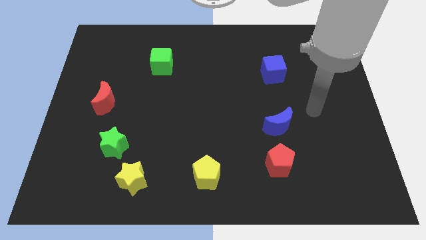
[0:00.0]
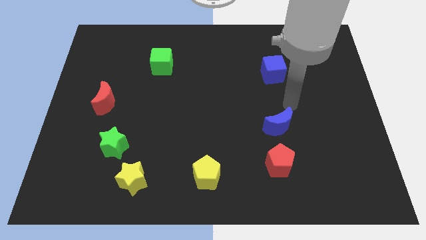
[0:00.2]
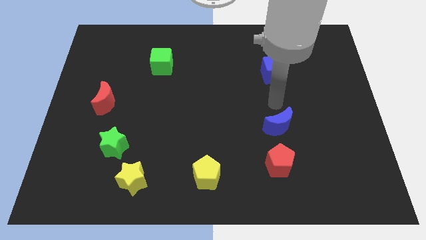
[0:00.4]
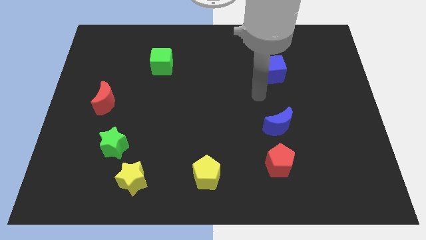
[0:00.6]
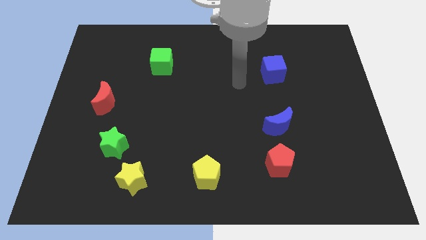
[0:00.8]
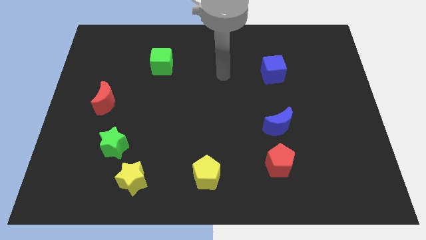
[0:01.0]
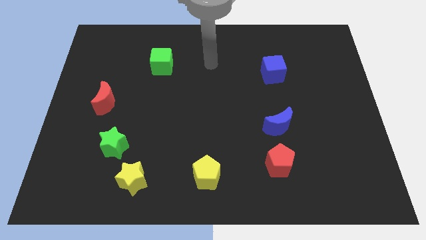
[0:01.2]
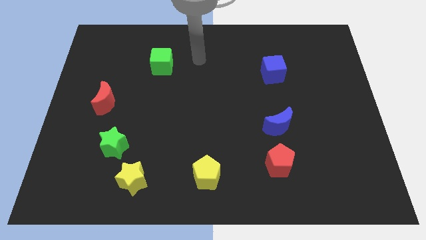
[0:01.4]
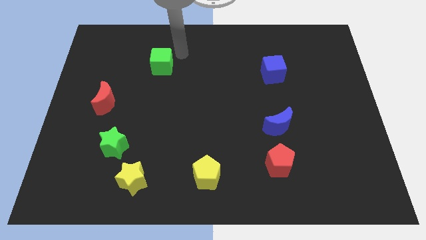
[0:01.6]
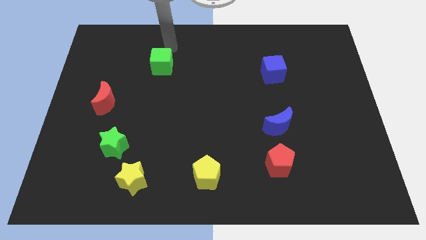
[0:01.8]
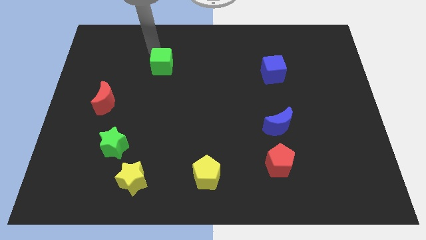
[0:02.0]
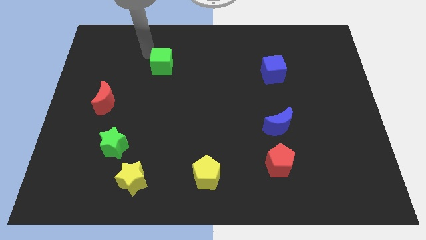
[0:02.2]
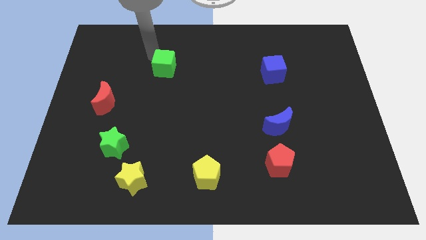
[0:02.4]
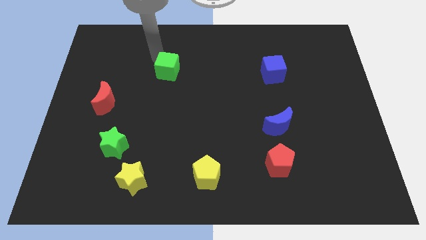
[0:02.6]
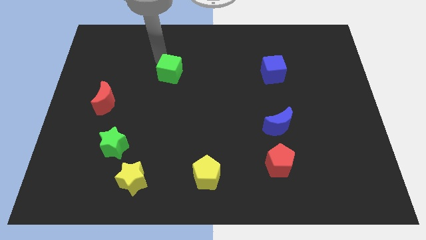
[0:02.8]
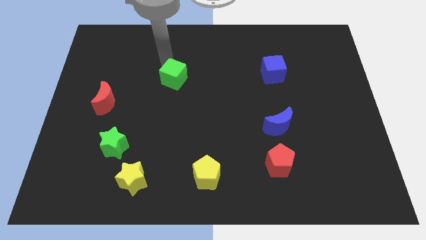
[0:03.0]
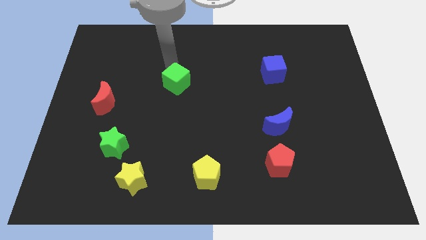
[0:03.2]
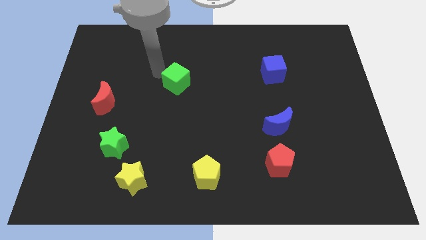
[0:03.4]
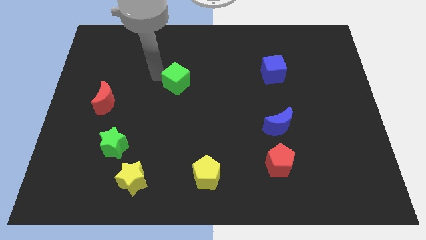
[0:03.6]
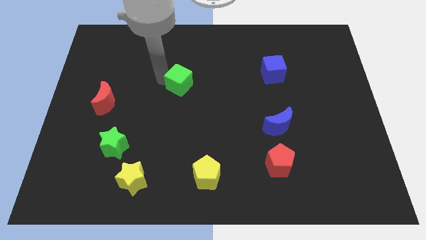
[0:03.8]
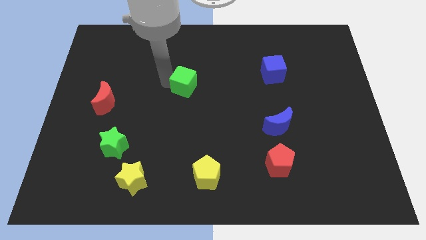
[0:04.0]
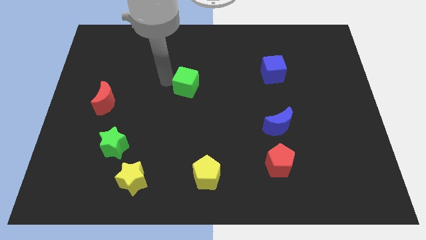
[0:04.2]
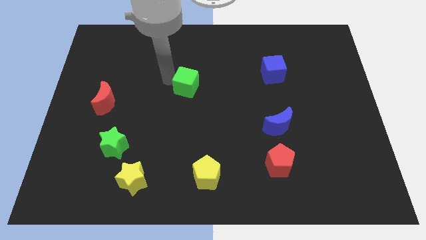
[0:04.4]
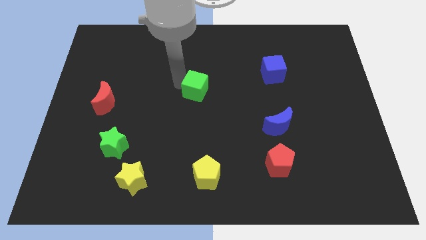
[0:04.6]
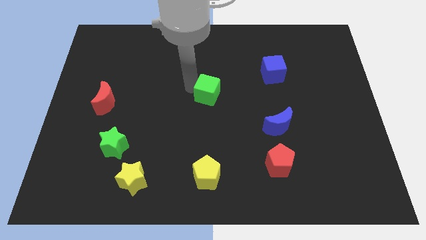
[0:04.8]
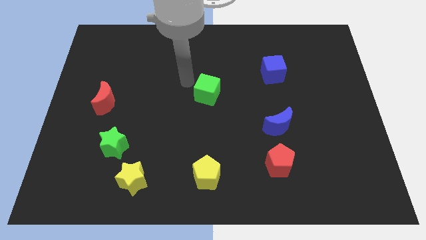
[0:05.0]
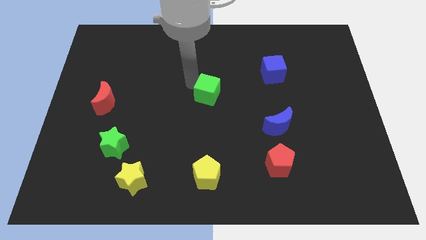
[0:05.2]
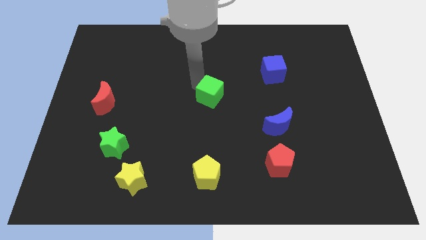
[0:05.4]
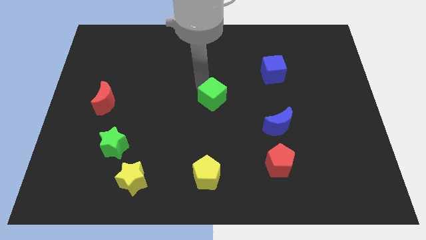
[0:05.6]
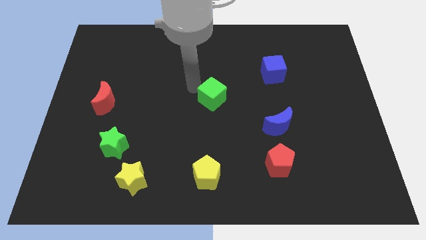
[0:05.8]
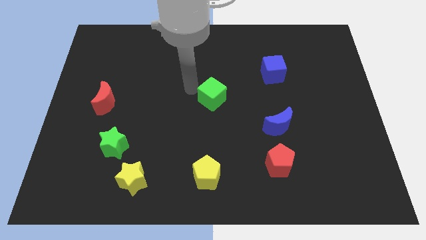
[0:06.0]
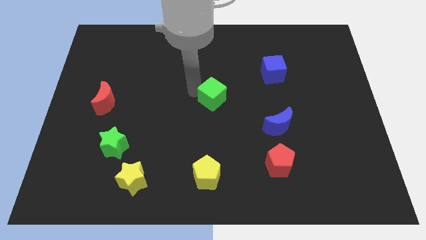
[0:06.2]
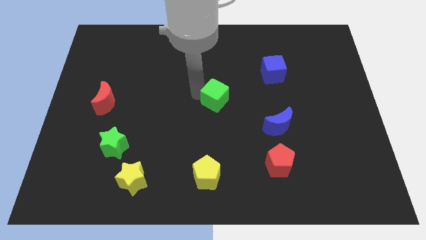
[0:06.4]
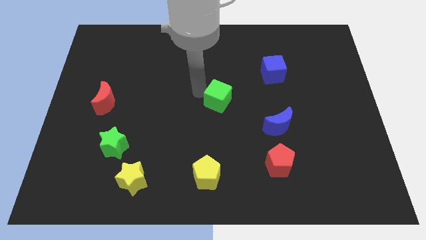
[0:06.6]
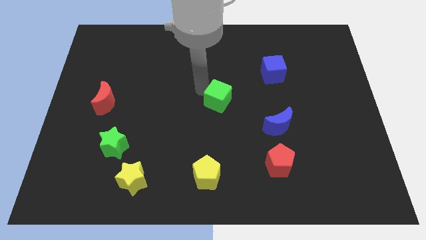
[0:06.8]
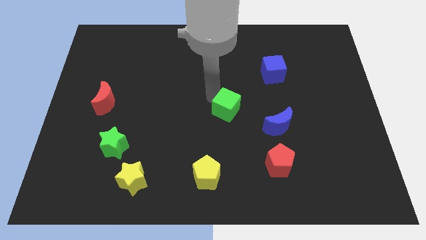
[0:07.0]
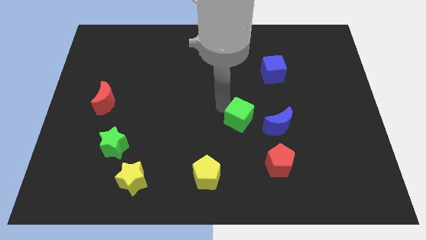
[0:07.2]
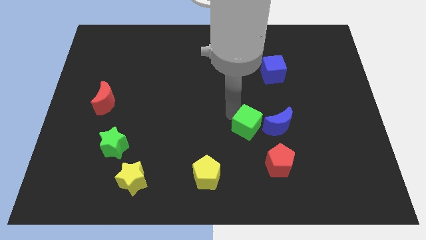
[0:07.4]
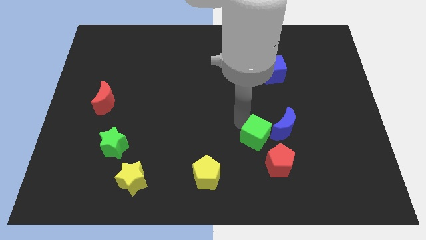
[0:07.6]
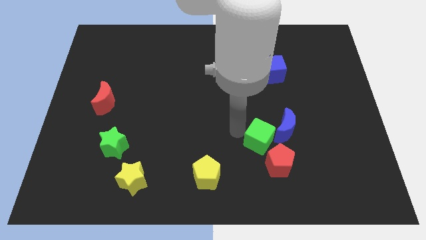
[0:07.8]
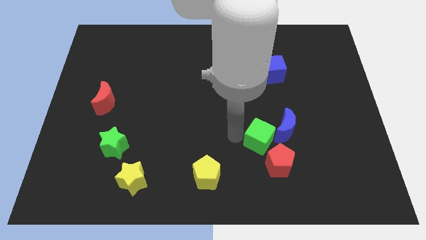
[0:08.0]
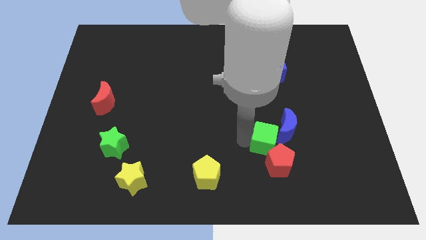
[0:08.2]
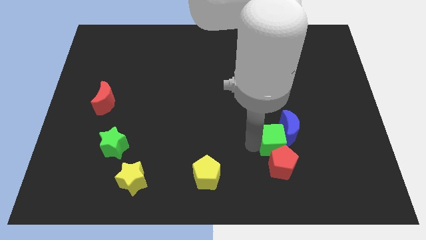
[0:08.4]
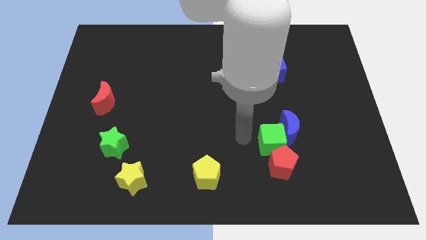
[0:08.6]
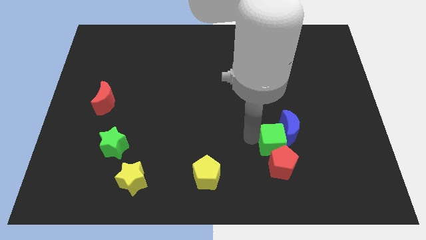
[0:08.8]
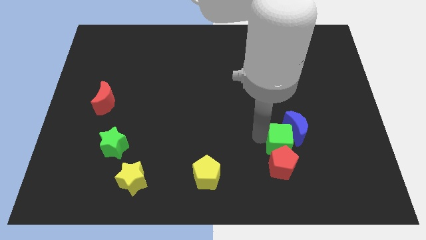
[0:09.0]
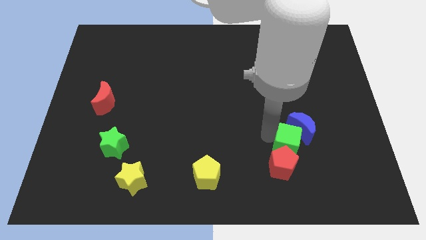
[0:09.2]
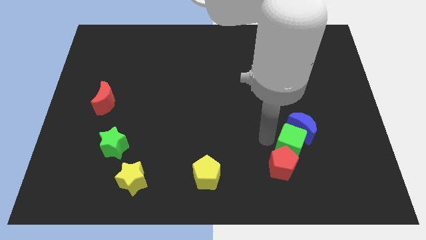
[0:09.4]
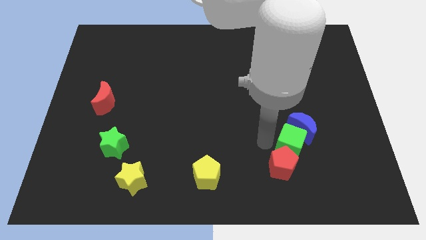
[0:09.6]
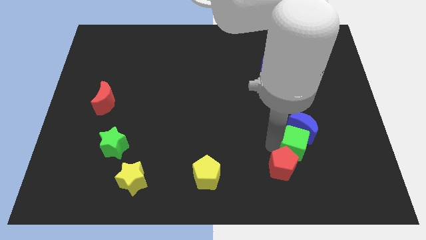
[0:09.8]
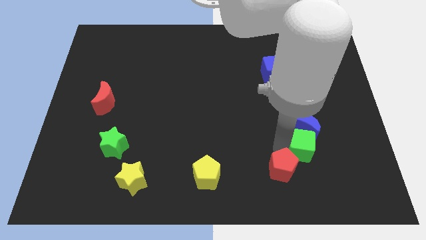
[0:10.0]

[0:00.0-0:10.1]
move the green cube diagonally down and to the right of the blue moon

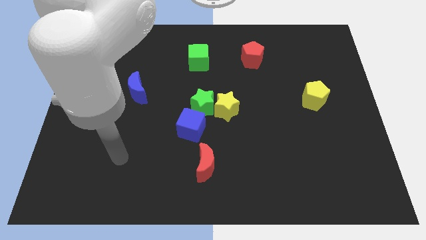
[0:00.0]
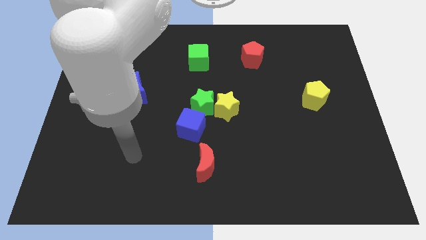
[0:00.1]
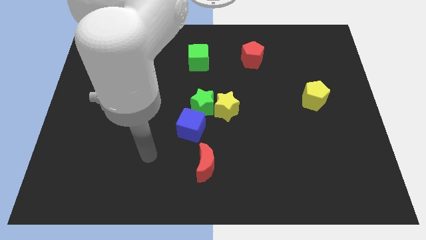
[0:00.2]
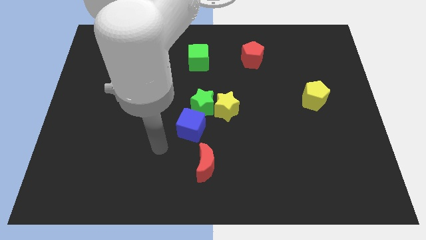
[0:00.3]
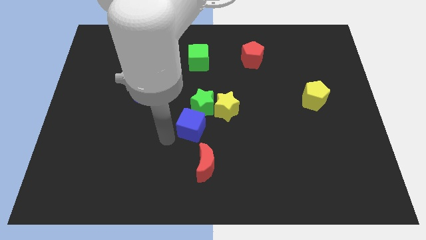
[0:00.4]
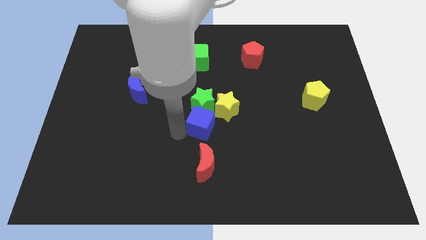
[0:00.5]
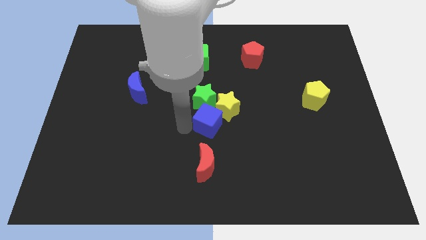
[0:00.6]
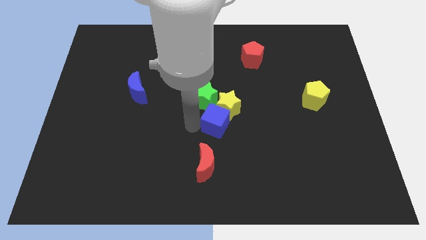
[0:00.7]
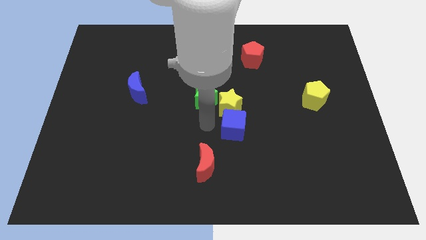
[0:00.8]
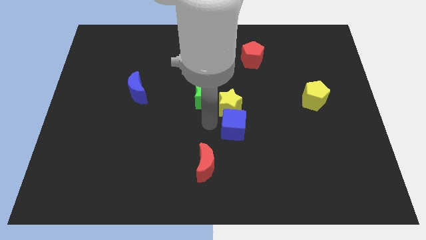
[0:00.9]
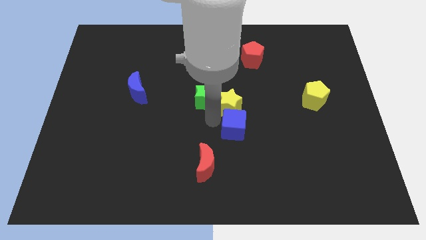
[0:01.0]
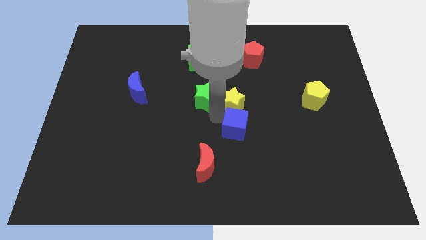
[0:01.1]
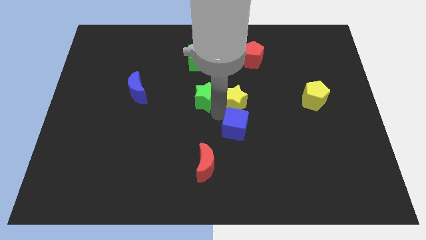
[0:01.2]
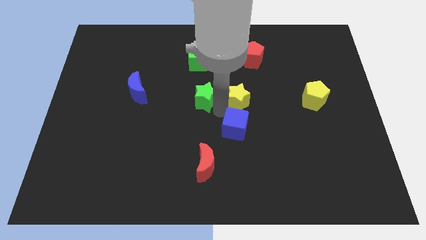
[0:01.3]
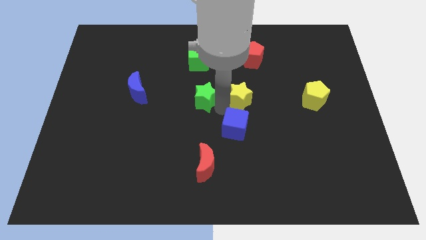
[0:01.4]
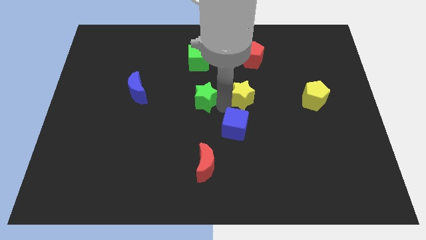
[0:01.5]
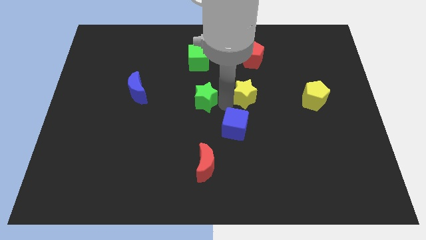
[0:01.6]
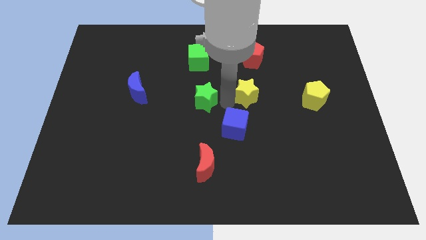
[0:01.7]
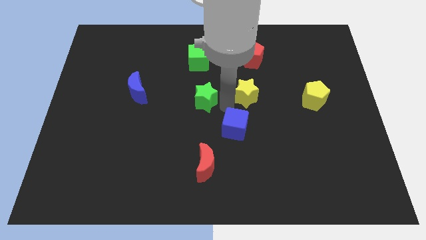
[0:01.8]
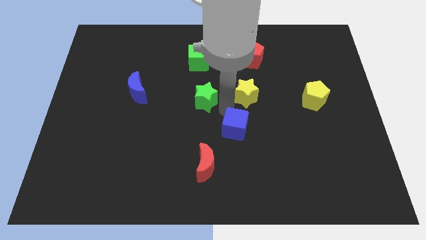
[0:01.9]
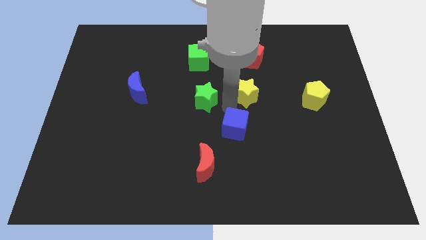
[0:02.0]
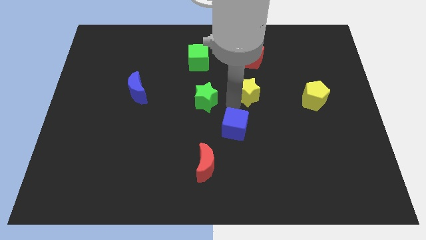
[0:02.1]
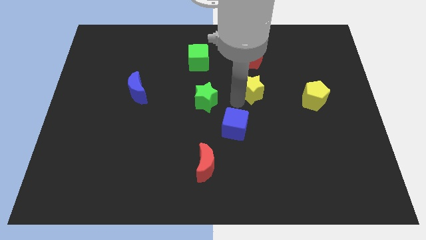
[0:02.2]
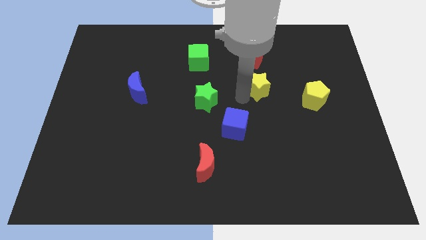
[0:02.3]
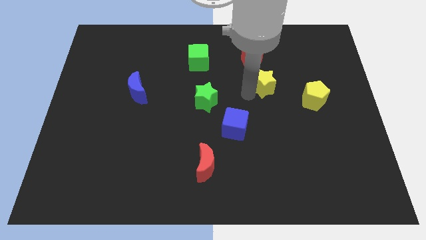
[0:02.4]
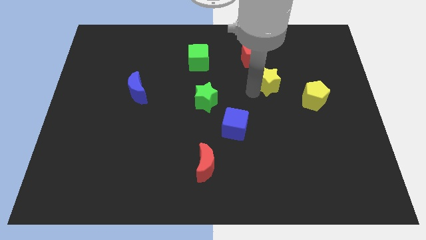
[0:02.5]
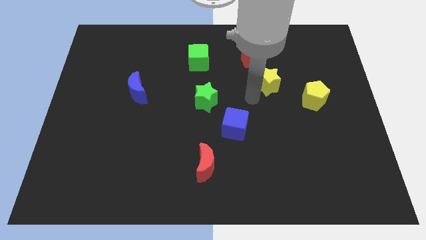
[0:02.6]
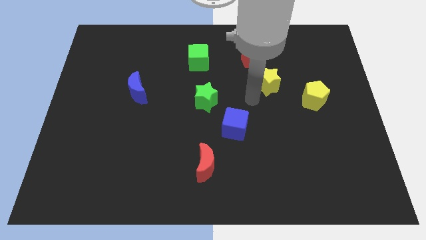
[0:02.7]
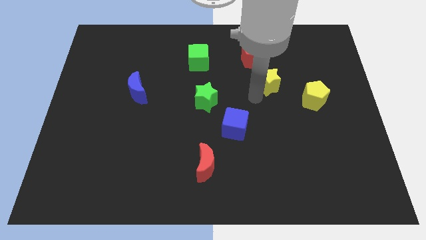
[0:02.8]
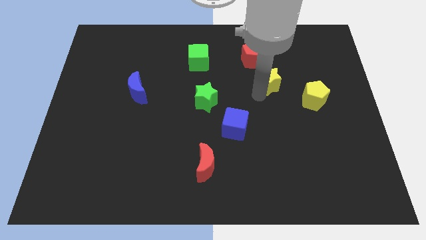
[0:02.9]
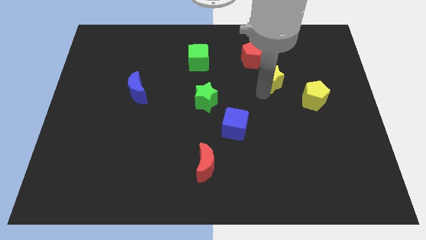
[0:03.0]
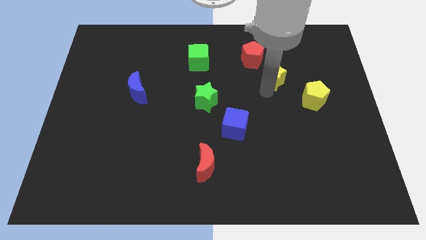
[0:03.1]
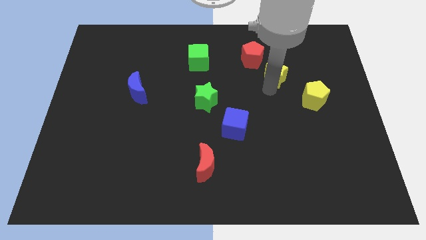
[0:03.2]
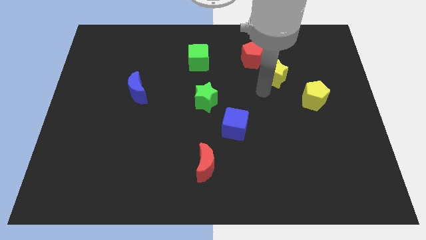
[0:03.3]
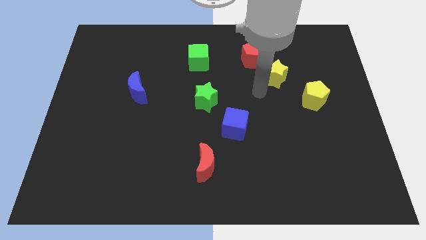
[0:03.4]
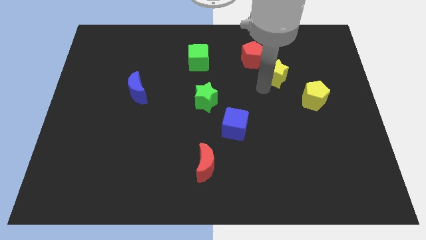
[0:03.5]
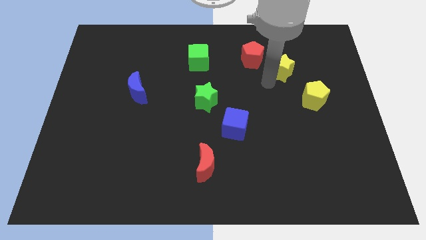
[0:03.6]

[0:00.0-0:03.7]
slide the yellow star to the right of the red pentagon
